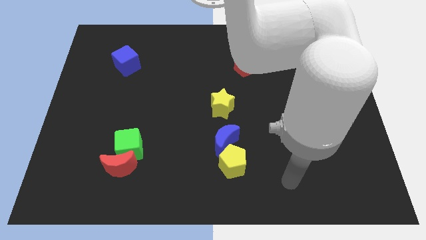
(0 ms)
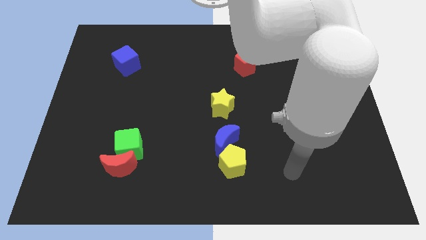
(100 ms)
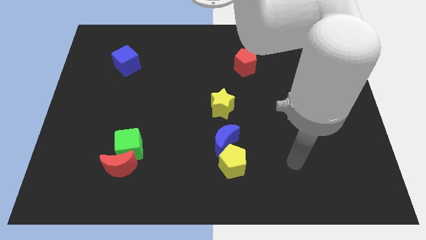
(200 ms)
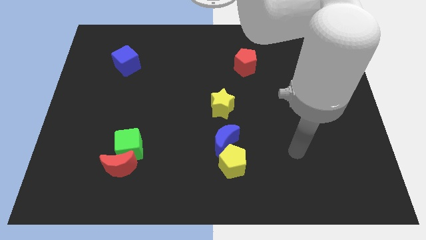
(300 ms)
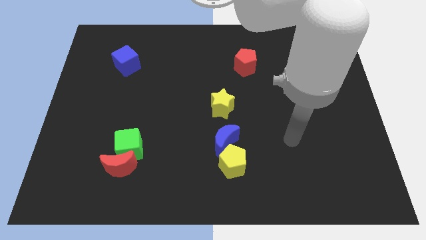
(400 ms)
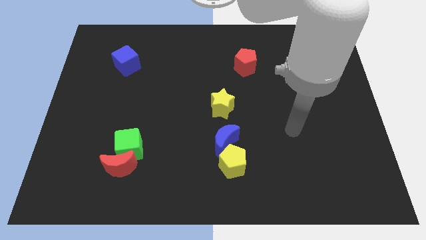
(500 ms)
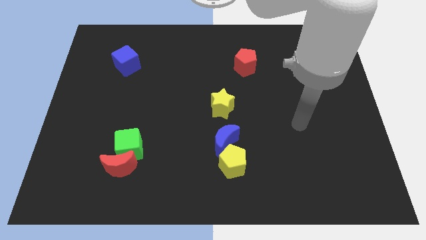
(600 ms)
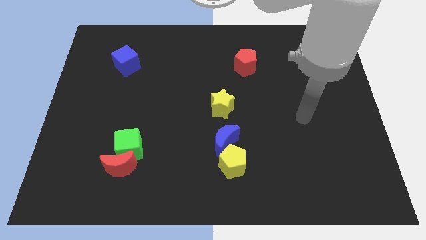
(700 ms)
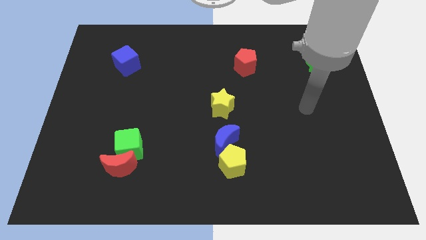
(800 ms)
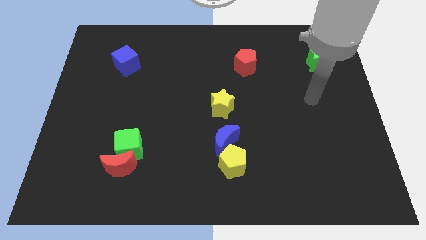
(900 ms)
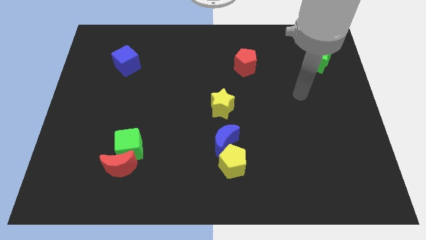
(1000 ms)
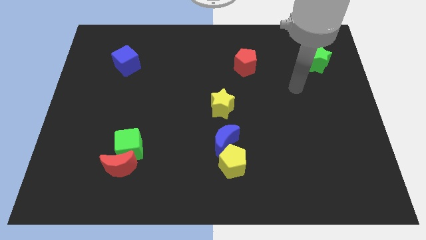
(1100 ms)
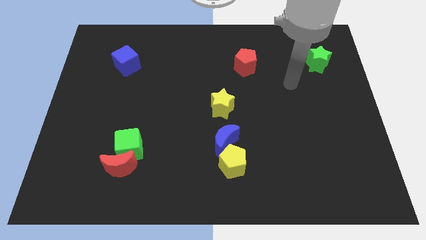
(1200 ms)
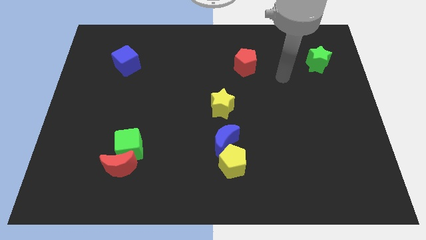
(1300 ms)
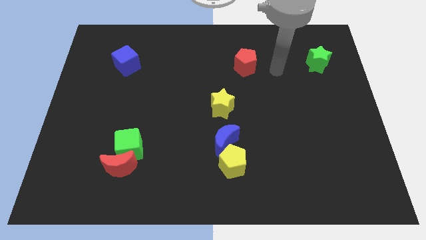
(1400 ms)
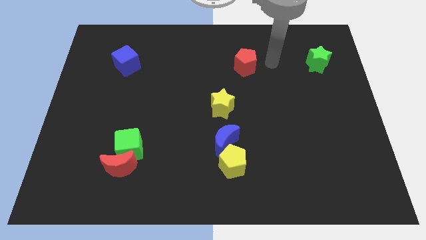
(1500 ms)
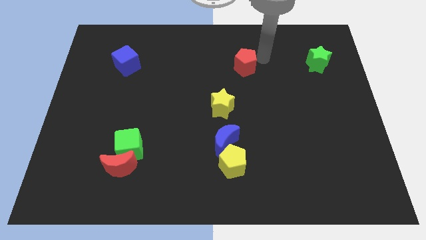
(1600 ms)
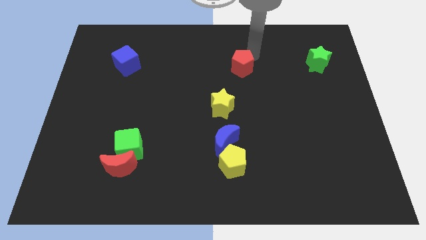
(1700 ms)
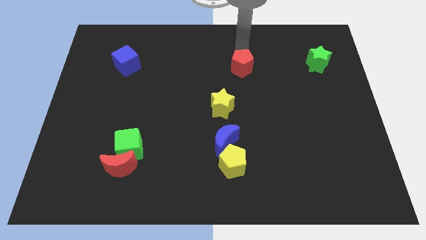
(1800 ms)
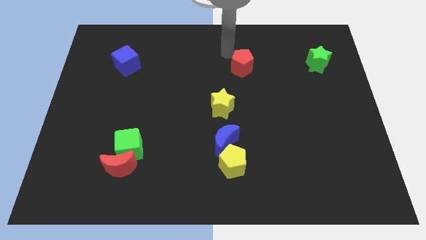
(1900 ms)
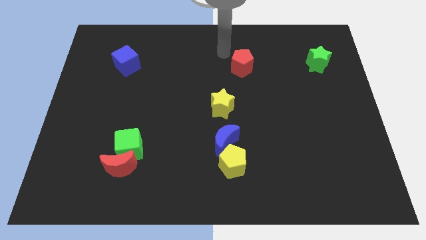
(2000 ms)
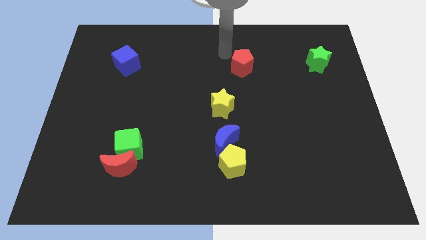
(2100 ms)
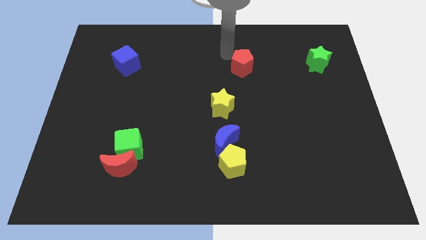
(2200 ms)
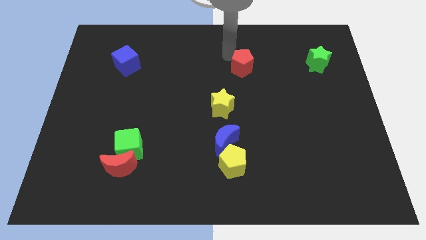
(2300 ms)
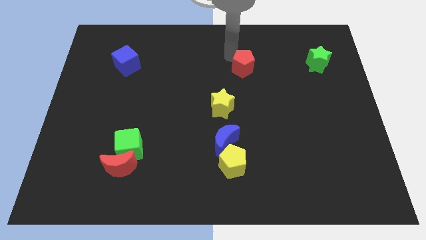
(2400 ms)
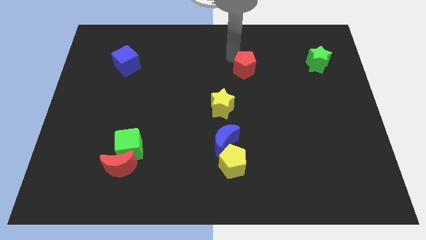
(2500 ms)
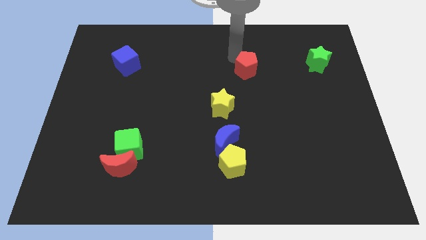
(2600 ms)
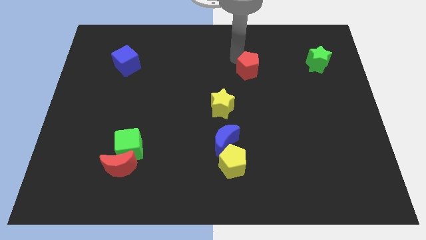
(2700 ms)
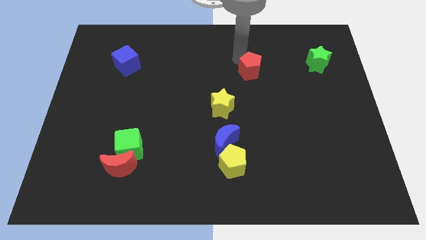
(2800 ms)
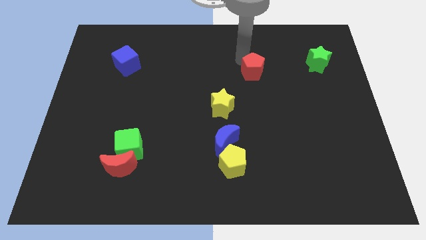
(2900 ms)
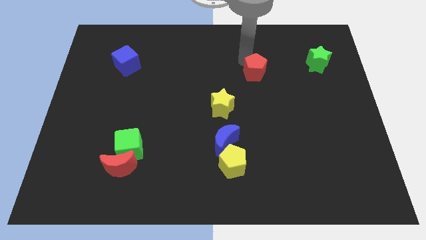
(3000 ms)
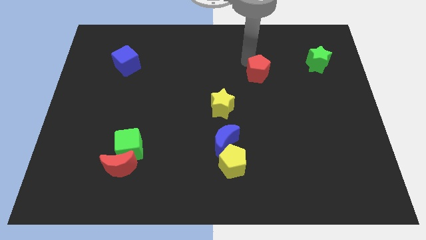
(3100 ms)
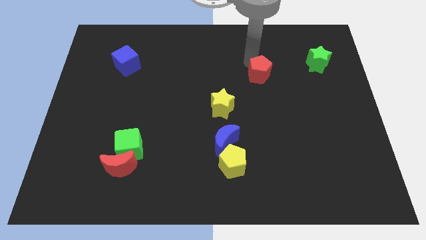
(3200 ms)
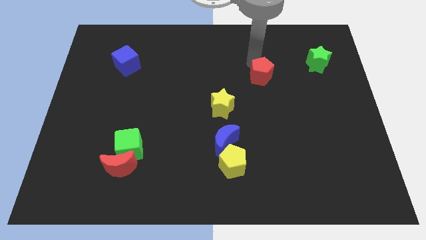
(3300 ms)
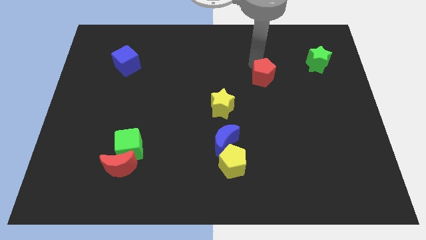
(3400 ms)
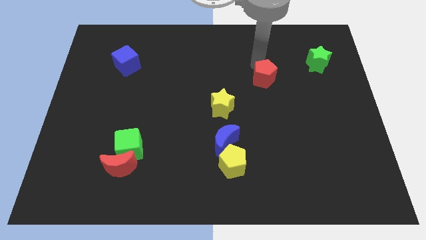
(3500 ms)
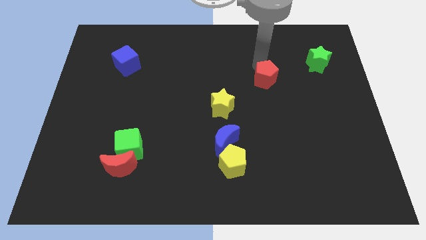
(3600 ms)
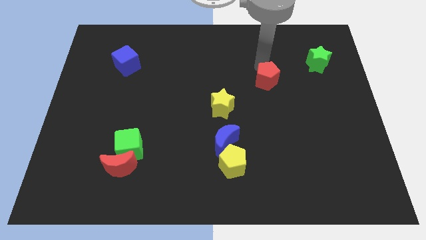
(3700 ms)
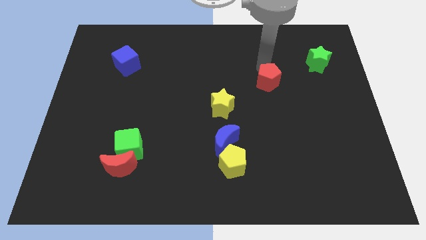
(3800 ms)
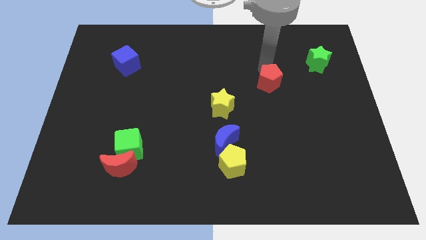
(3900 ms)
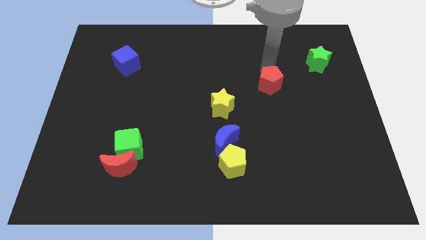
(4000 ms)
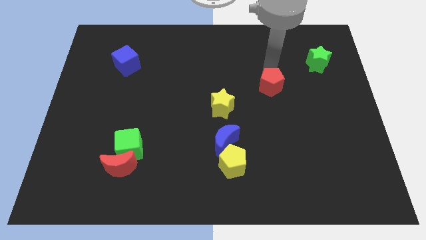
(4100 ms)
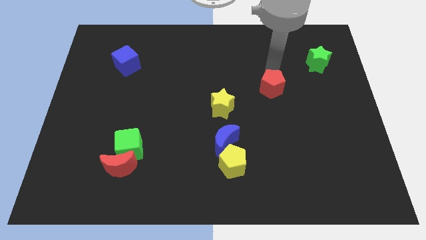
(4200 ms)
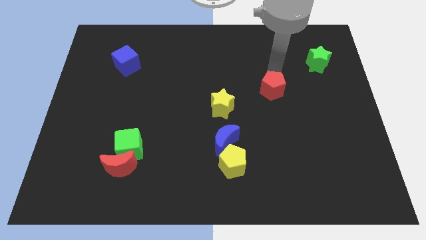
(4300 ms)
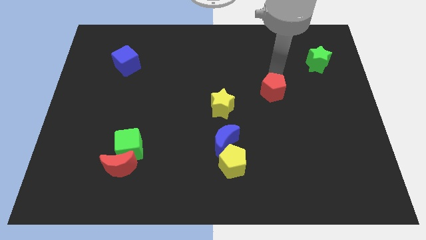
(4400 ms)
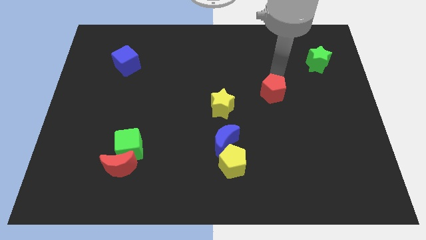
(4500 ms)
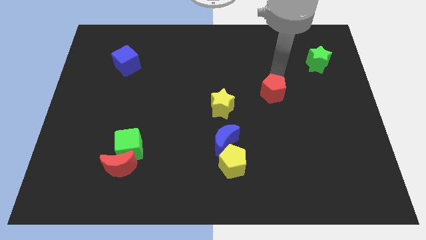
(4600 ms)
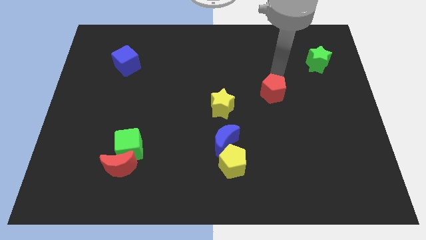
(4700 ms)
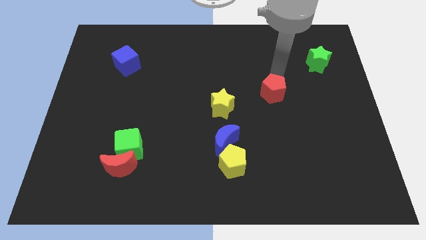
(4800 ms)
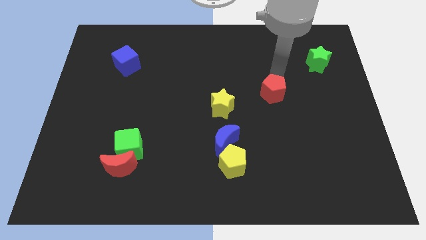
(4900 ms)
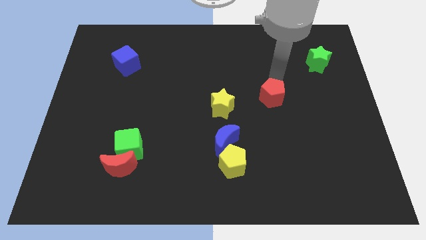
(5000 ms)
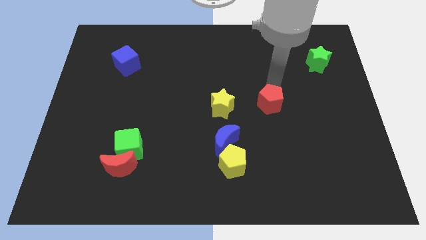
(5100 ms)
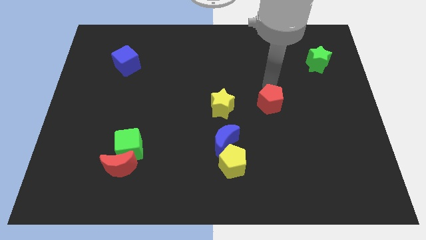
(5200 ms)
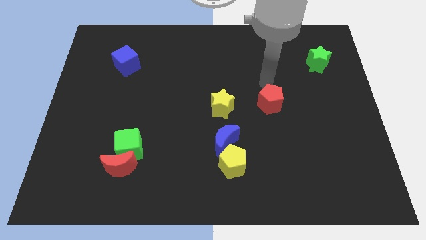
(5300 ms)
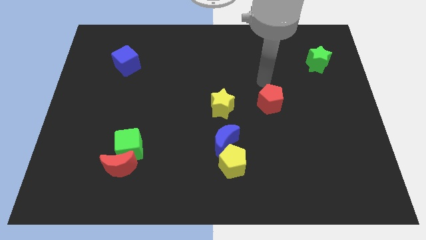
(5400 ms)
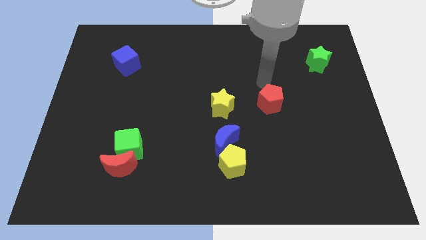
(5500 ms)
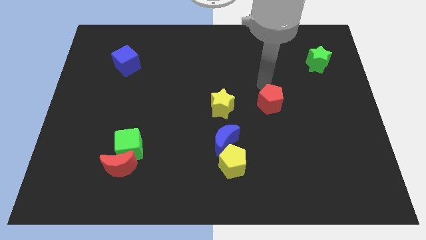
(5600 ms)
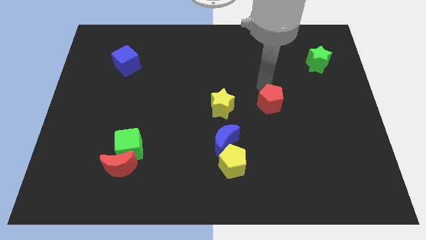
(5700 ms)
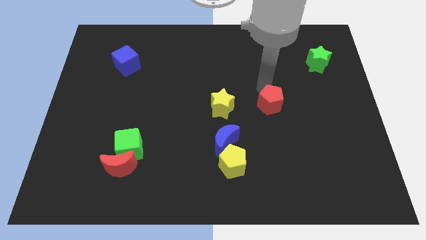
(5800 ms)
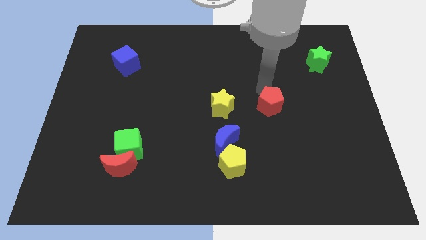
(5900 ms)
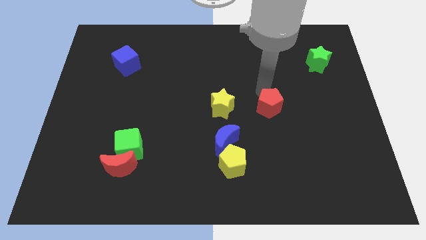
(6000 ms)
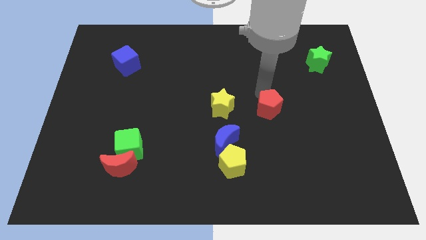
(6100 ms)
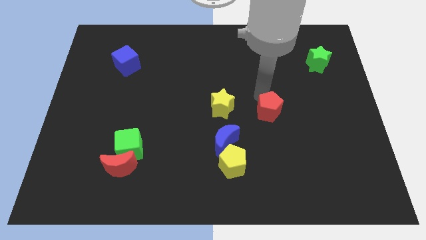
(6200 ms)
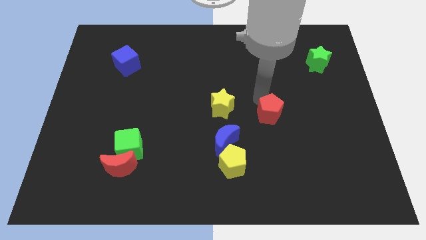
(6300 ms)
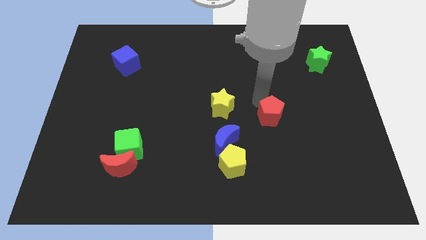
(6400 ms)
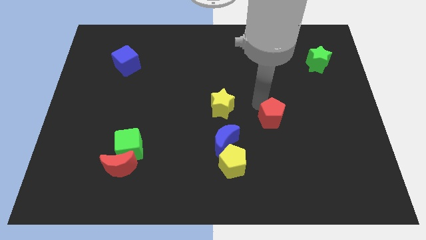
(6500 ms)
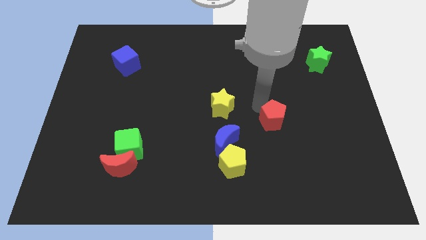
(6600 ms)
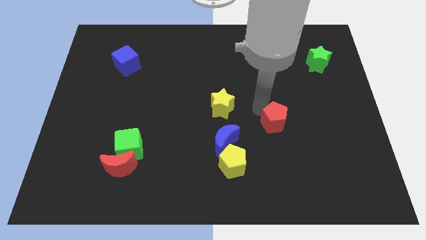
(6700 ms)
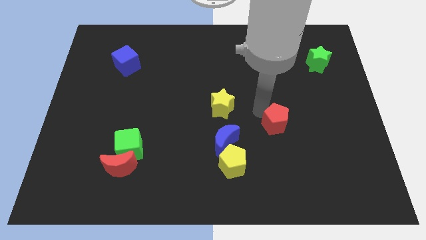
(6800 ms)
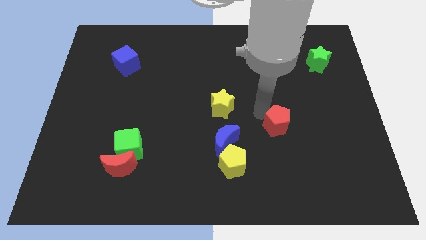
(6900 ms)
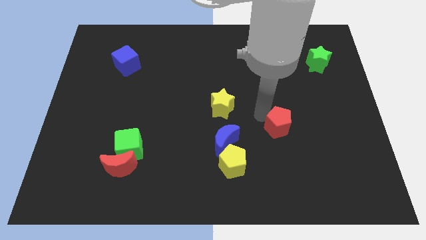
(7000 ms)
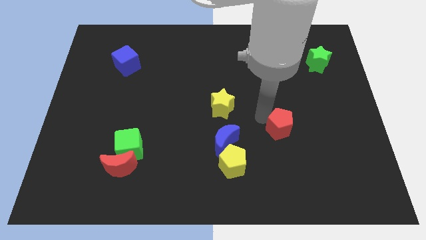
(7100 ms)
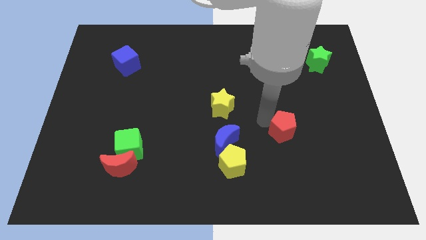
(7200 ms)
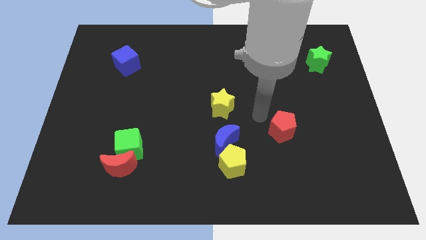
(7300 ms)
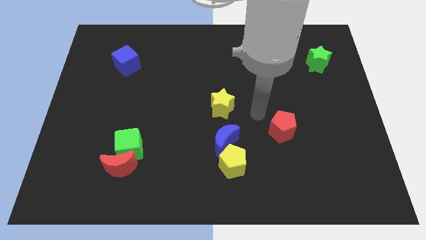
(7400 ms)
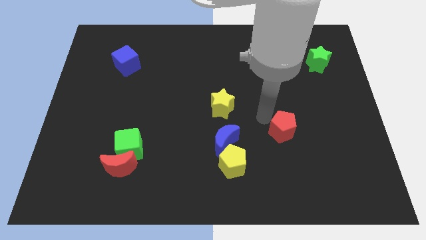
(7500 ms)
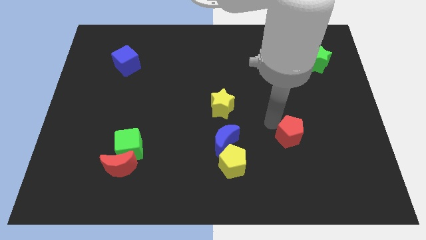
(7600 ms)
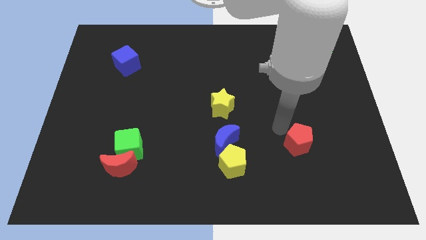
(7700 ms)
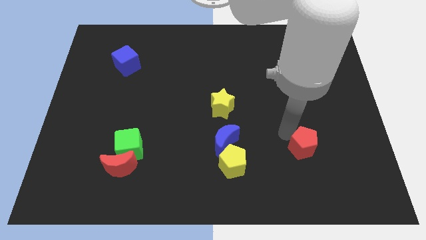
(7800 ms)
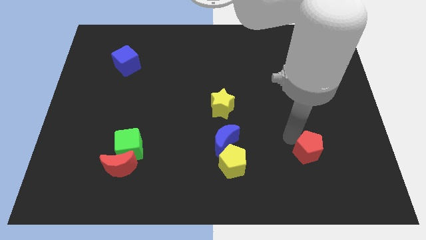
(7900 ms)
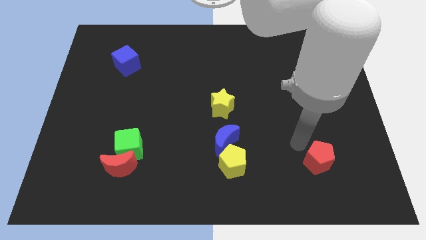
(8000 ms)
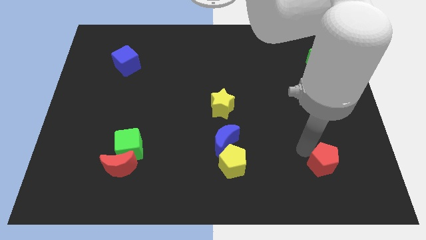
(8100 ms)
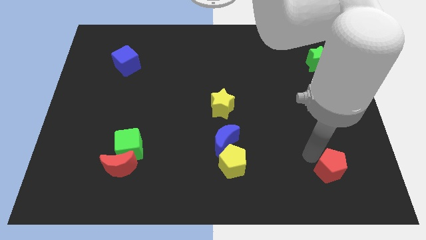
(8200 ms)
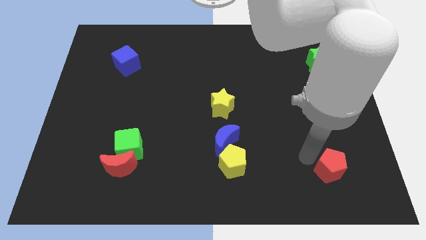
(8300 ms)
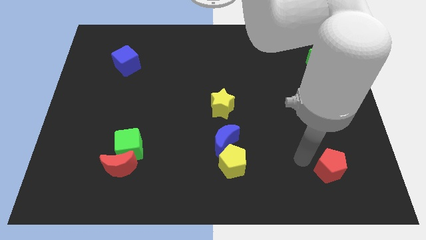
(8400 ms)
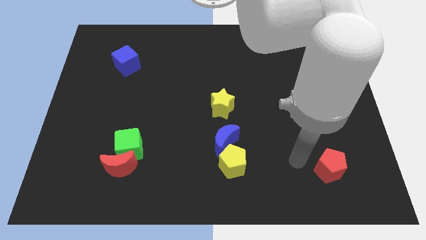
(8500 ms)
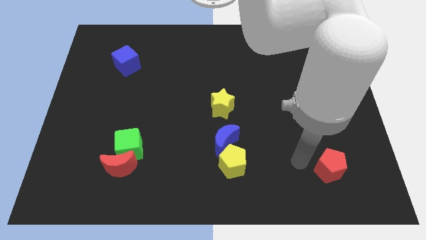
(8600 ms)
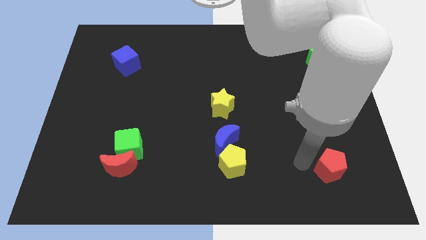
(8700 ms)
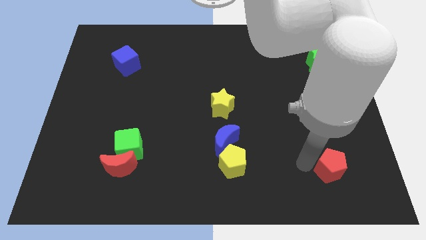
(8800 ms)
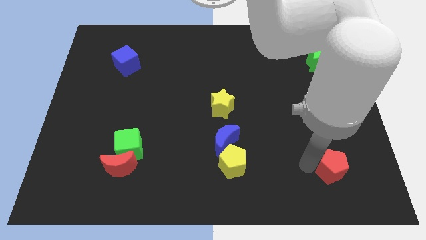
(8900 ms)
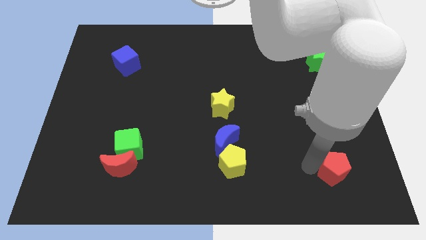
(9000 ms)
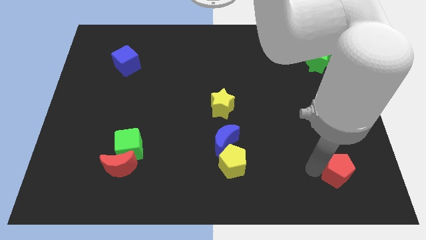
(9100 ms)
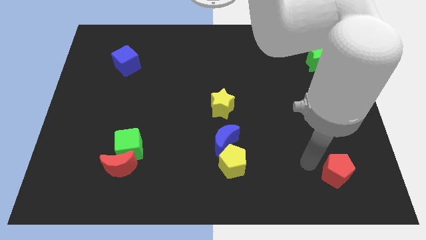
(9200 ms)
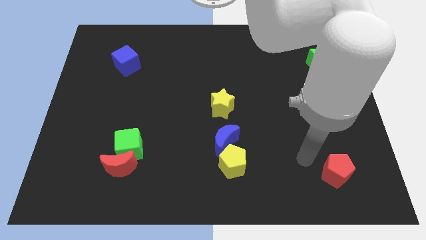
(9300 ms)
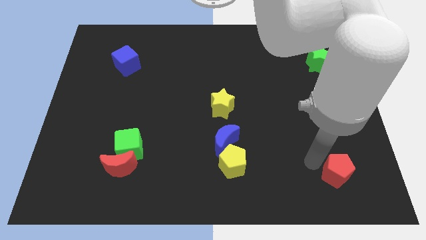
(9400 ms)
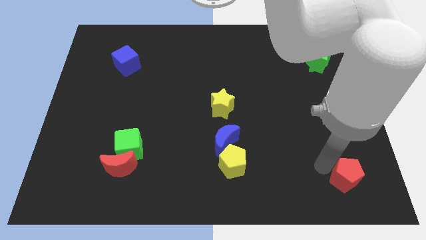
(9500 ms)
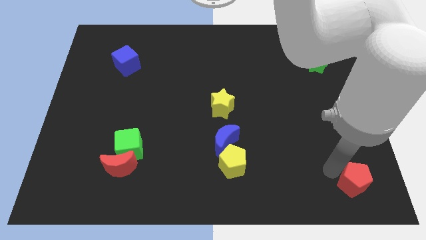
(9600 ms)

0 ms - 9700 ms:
move the red pentagon to the lower right corner
